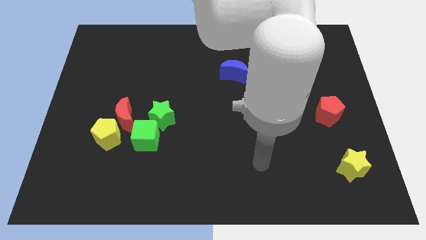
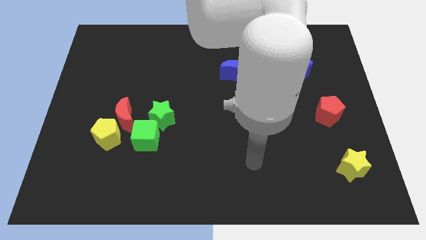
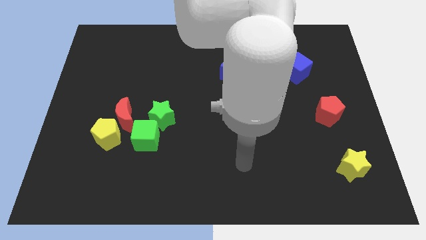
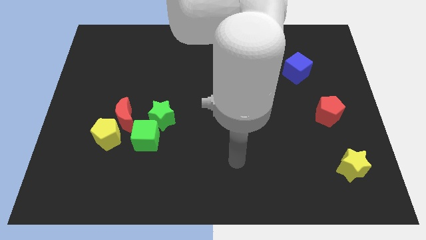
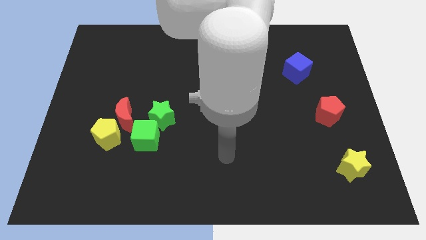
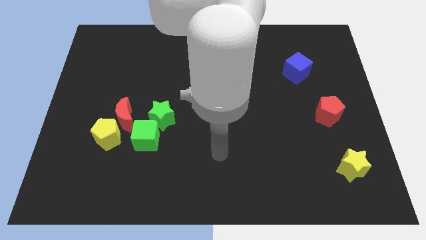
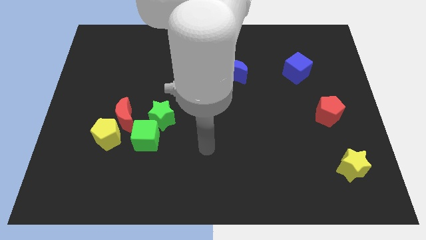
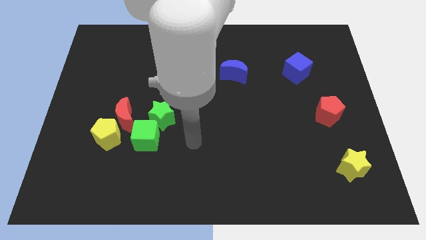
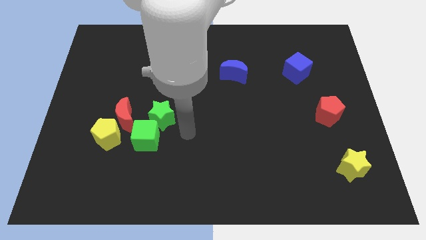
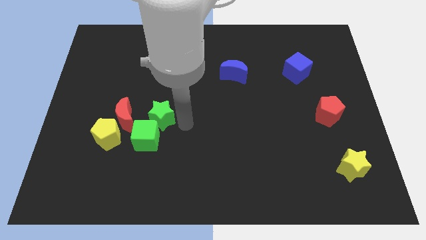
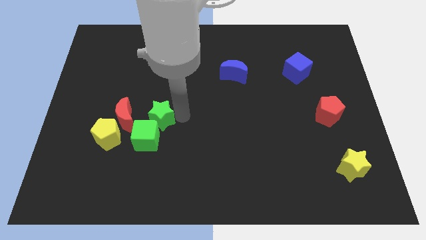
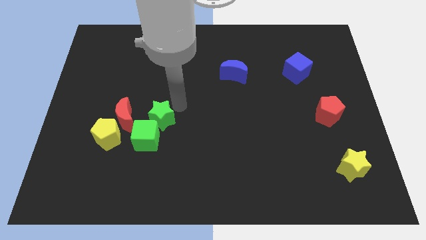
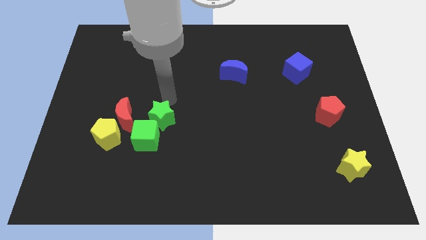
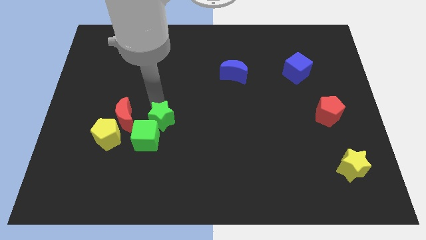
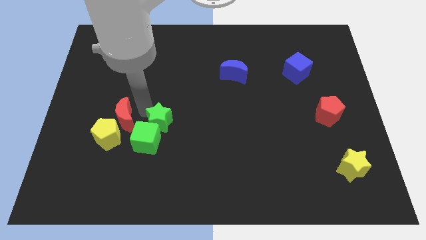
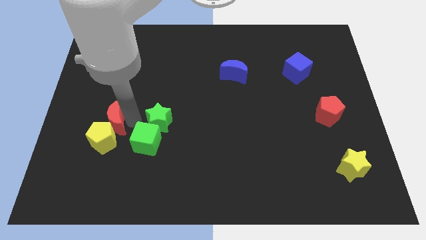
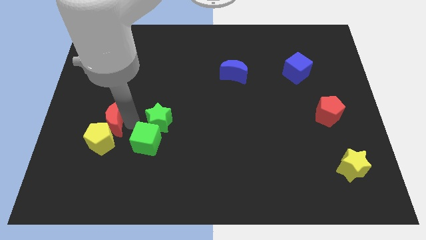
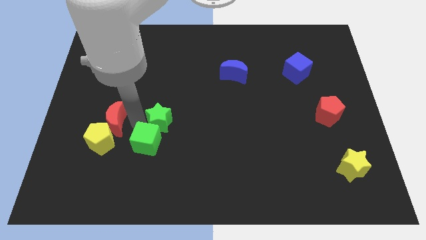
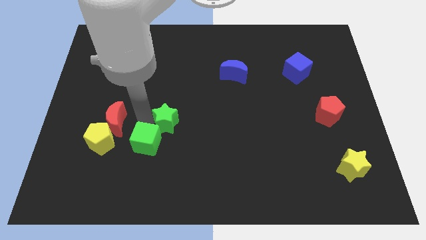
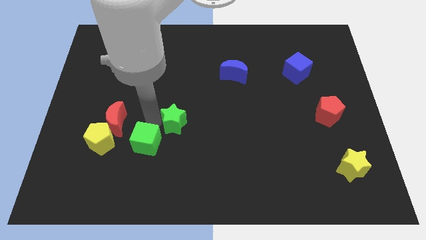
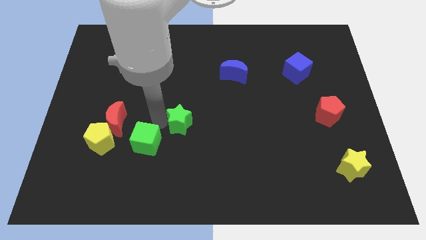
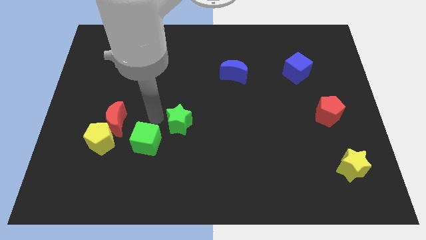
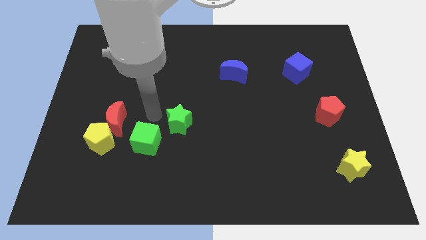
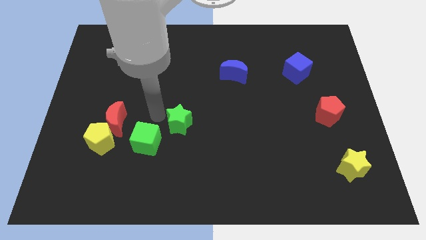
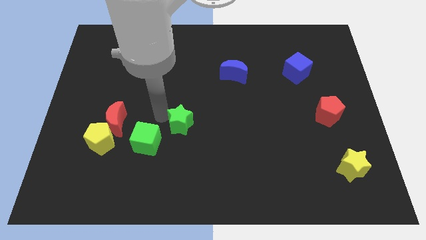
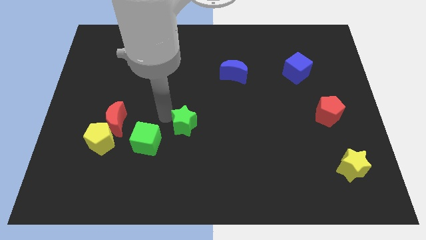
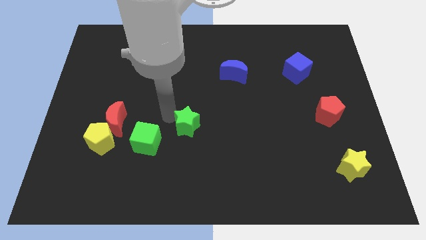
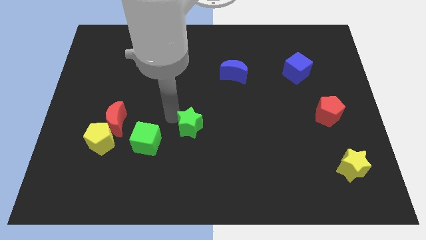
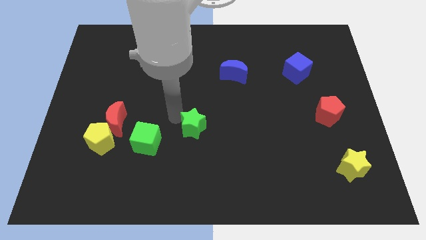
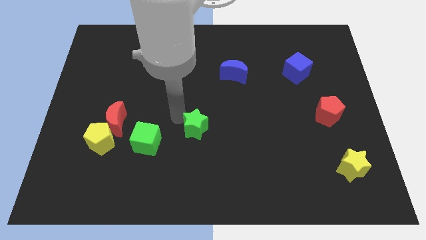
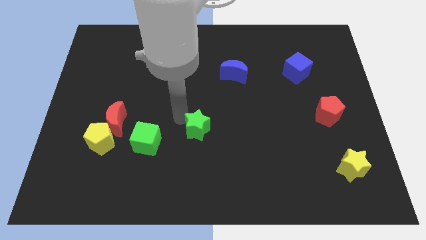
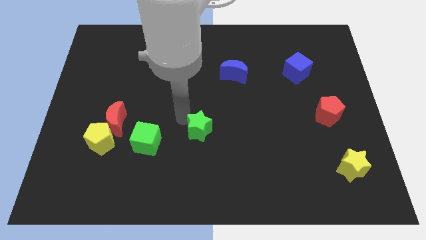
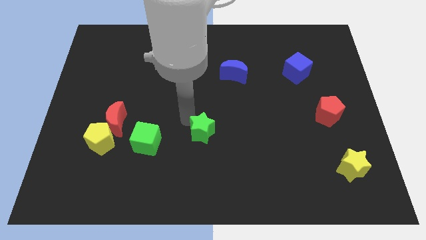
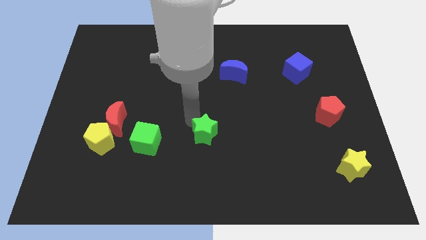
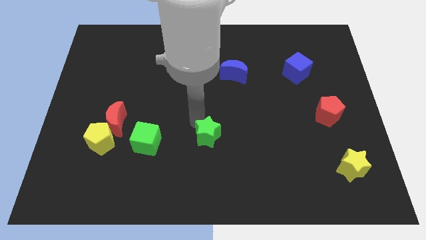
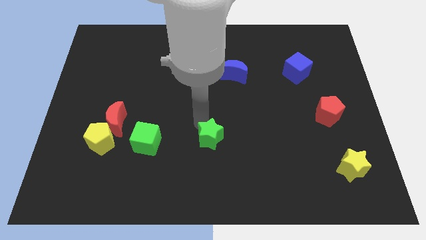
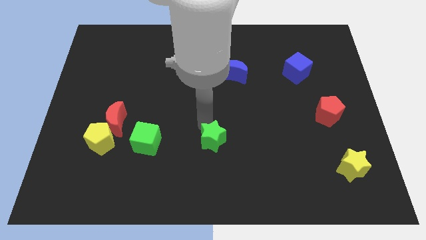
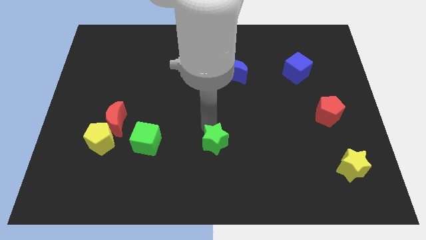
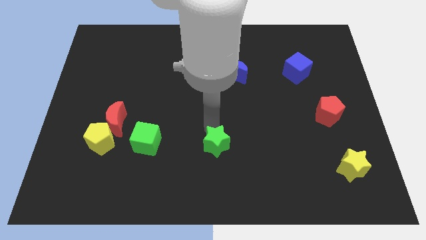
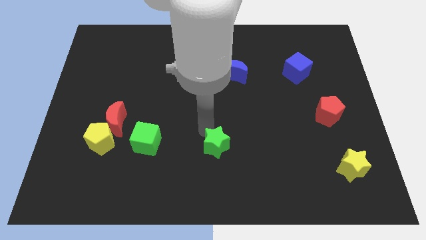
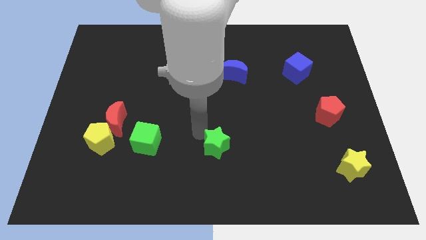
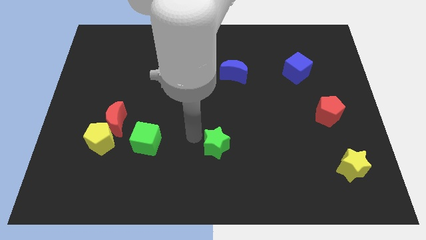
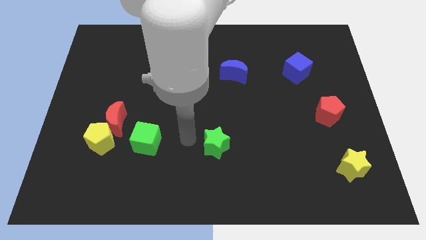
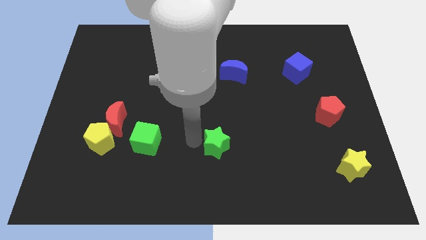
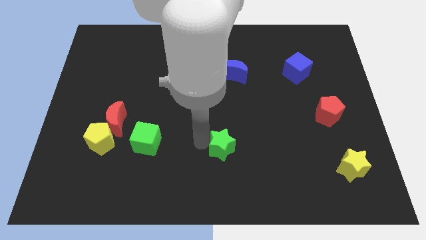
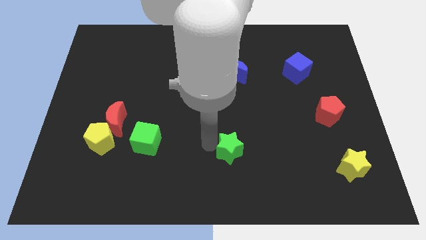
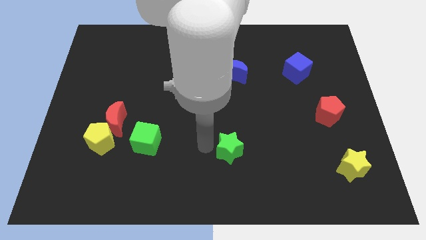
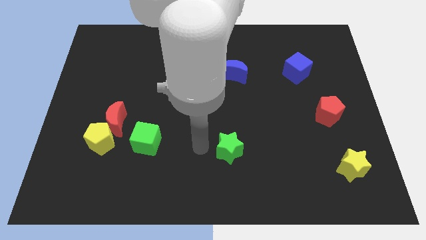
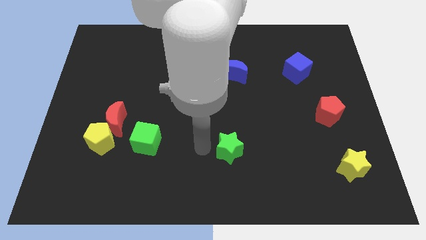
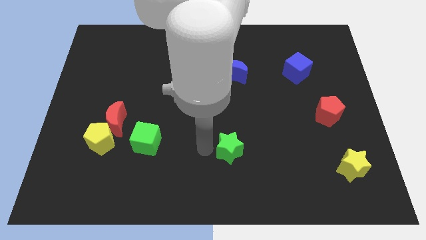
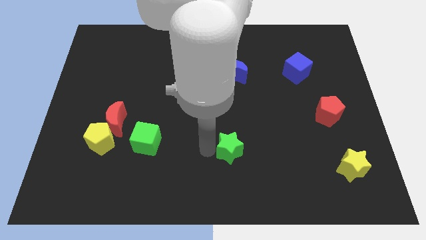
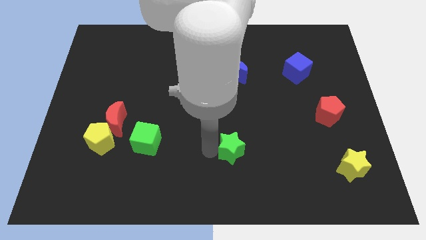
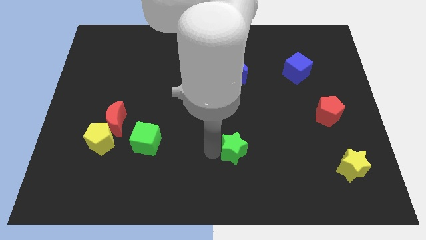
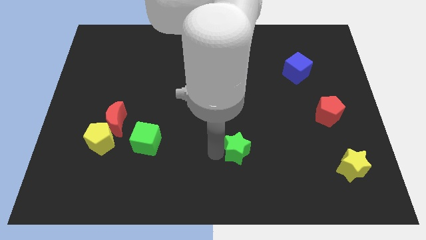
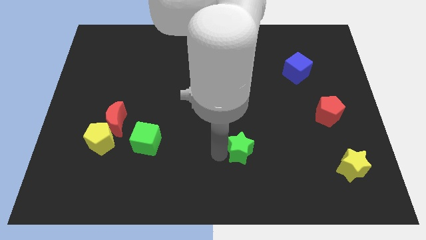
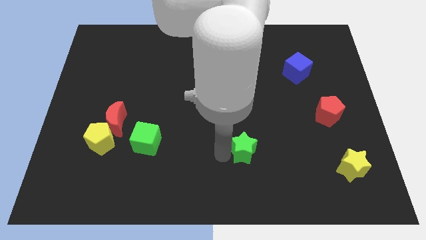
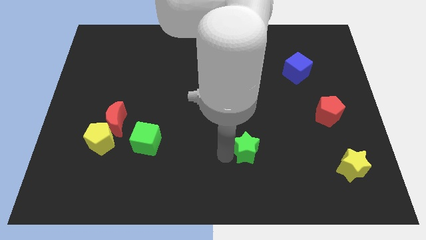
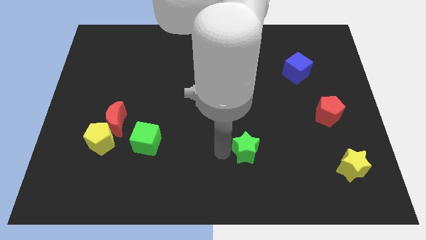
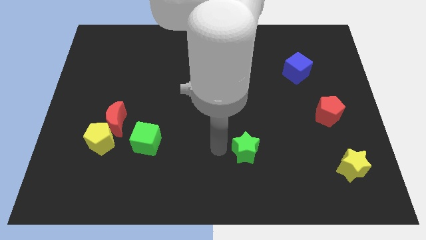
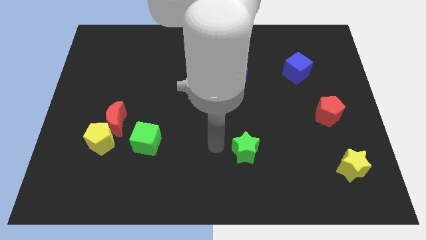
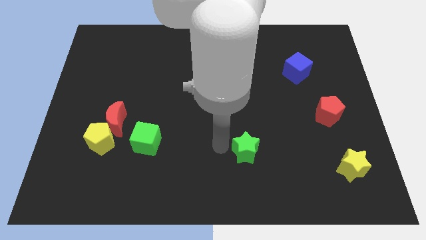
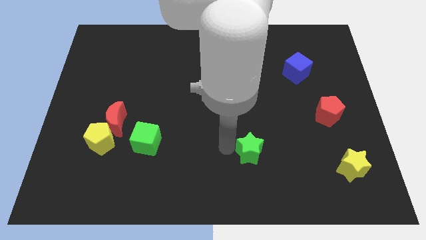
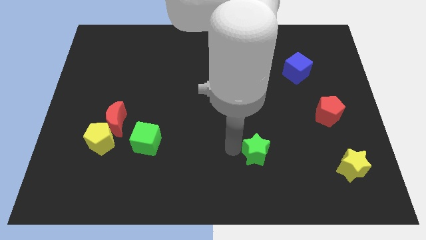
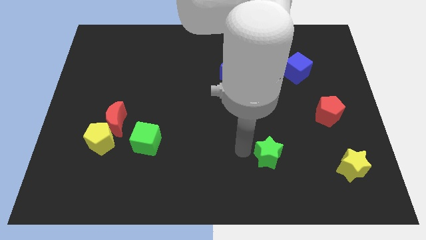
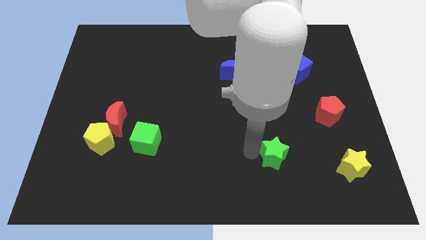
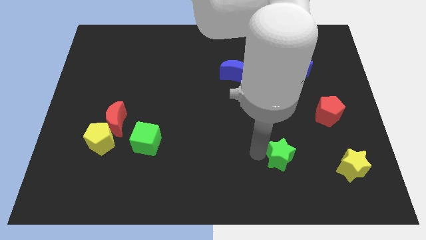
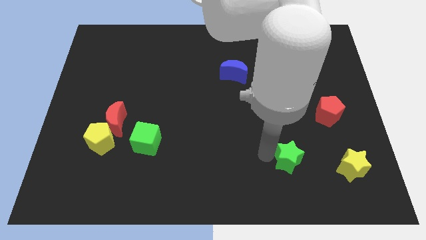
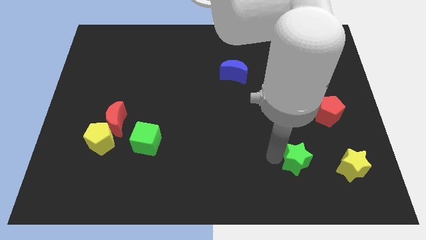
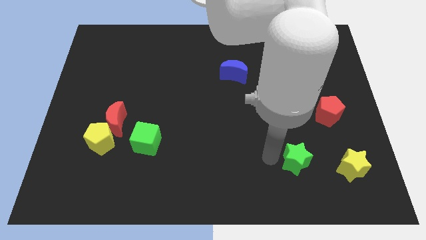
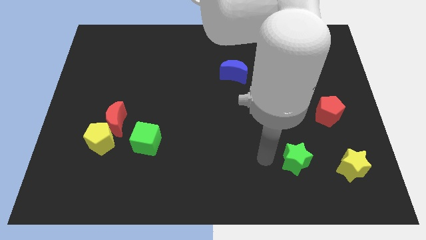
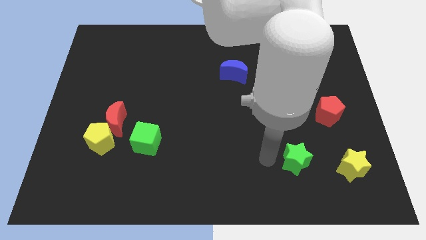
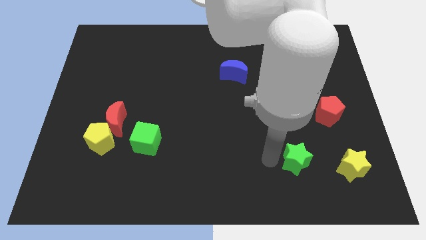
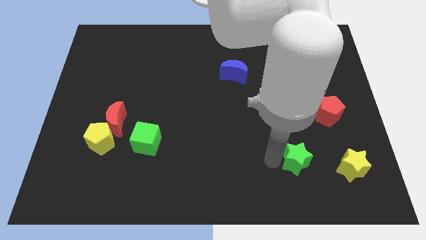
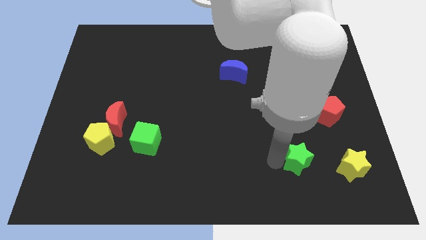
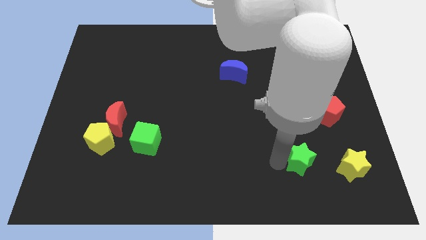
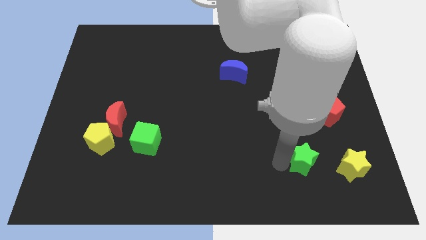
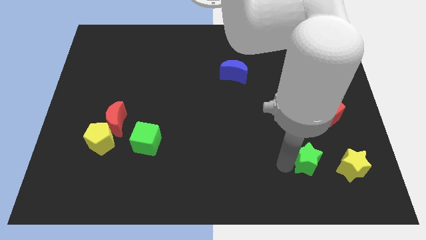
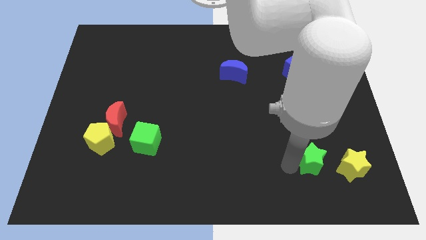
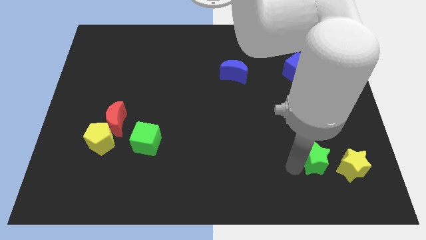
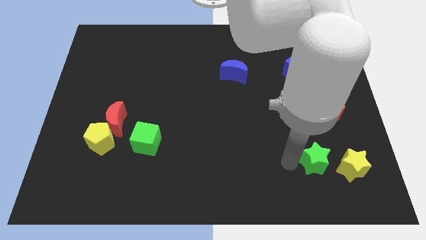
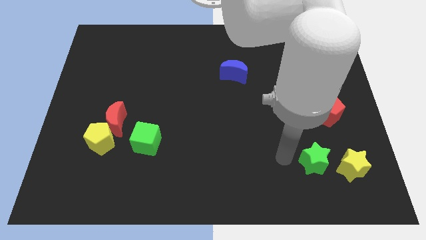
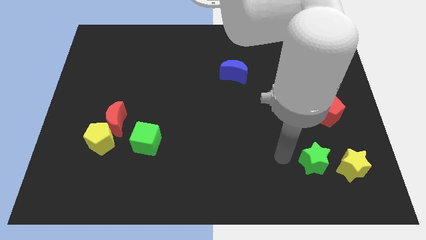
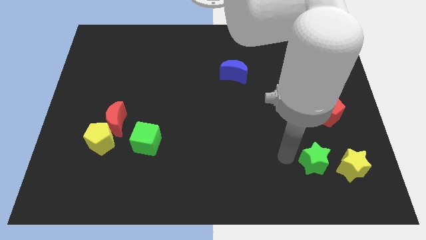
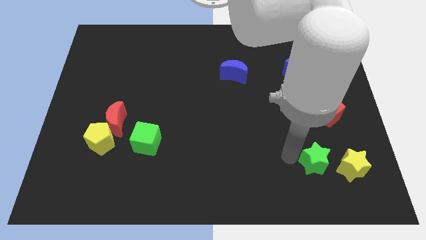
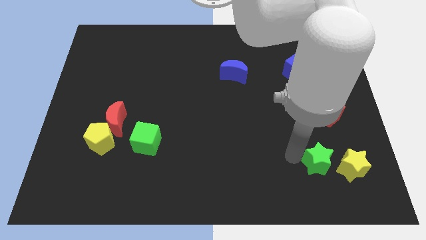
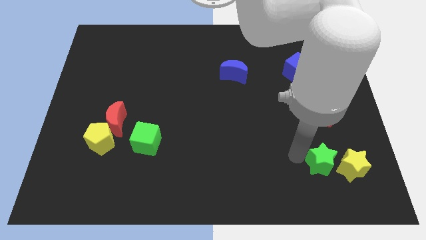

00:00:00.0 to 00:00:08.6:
slide the green star next to the yellow star
